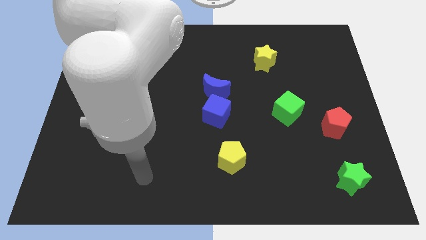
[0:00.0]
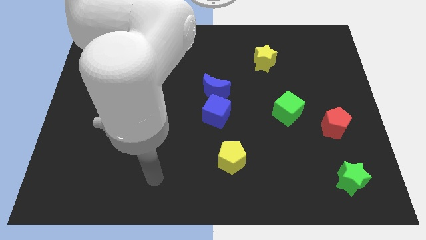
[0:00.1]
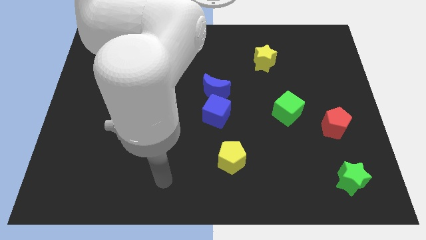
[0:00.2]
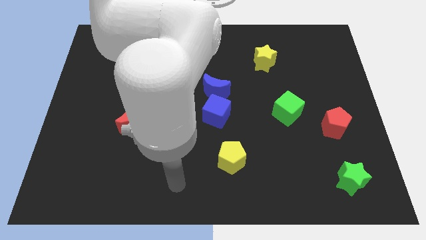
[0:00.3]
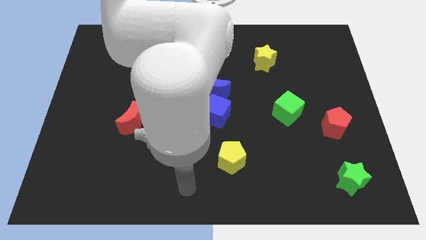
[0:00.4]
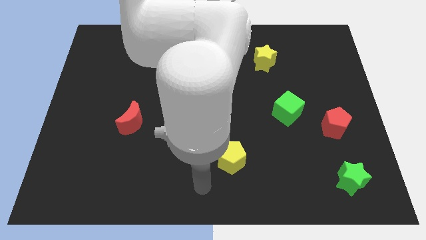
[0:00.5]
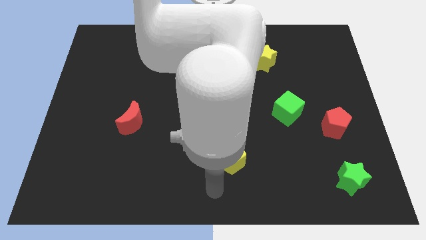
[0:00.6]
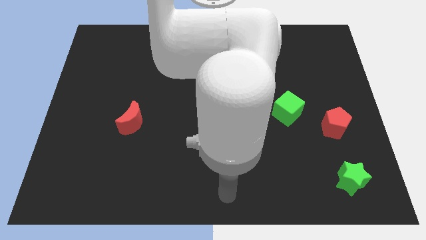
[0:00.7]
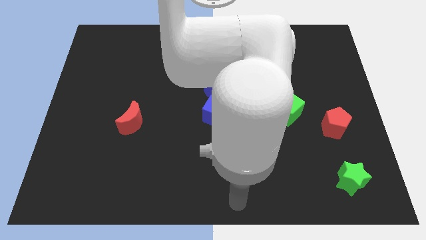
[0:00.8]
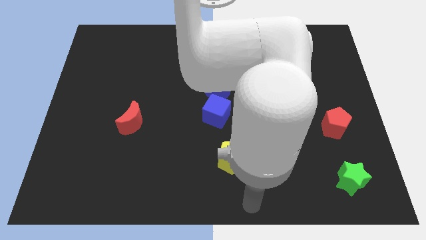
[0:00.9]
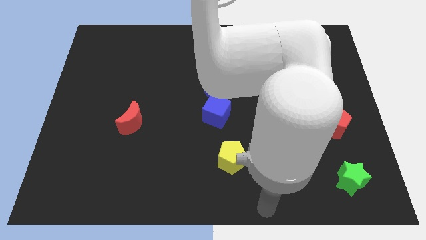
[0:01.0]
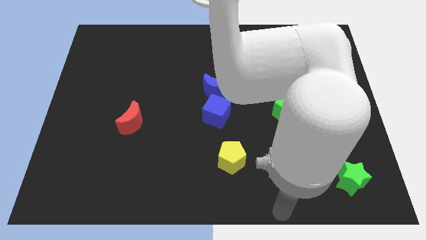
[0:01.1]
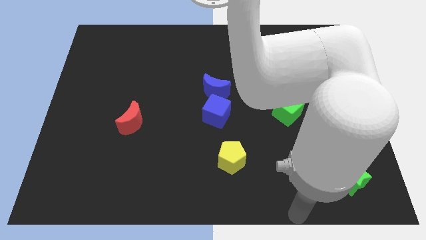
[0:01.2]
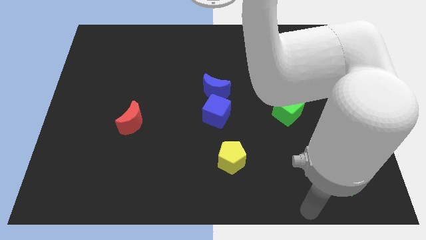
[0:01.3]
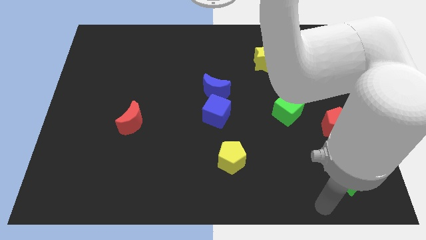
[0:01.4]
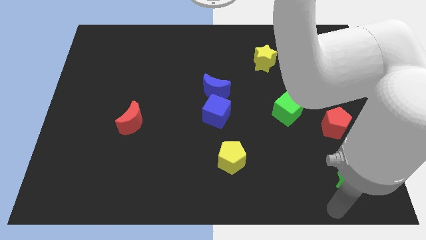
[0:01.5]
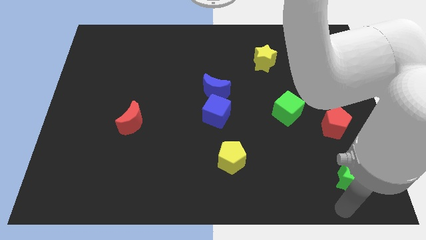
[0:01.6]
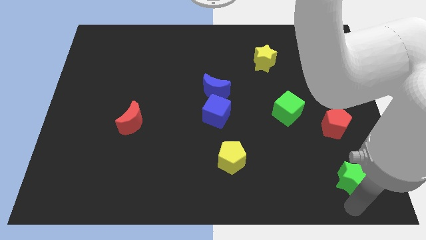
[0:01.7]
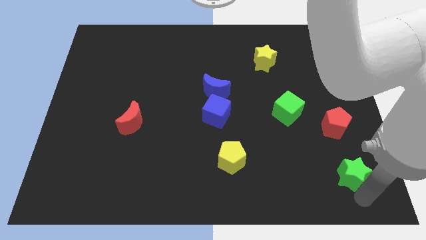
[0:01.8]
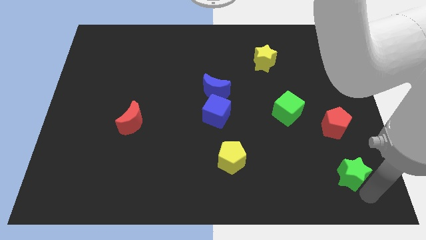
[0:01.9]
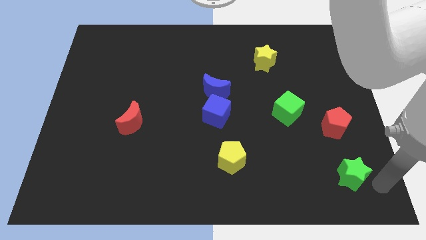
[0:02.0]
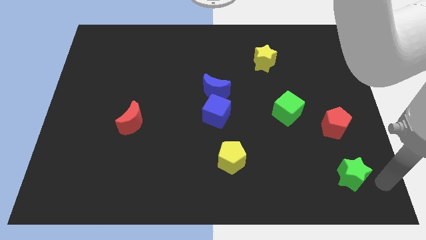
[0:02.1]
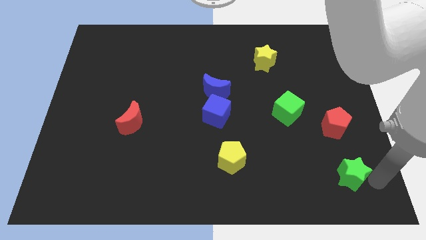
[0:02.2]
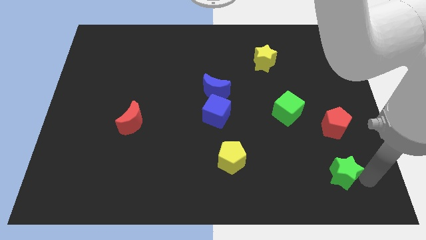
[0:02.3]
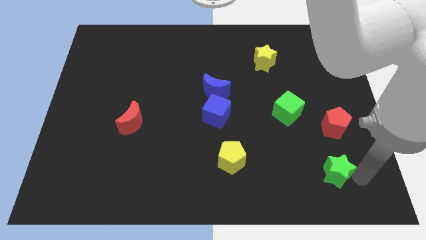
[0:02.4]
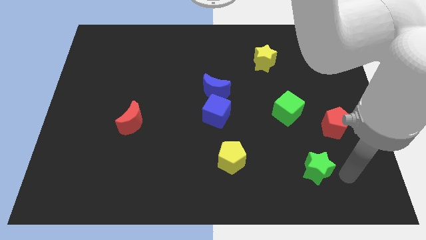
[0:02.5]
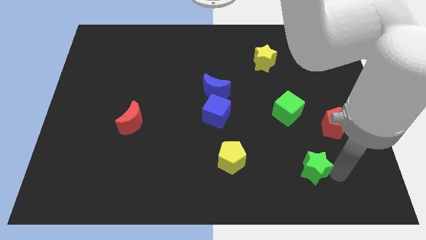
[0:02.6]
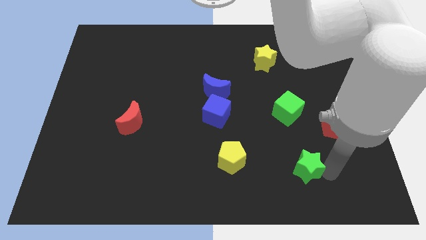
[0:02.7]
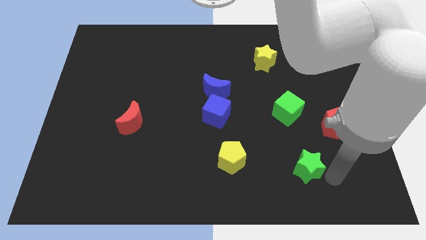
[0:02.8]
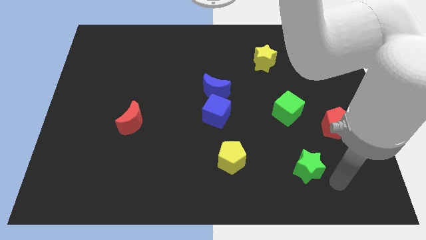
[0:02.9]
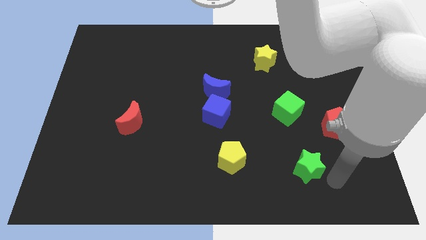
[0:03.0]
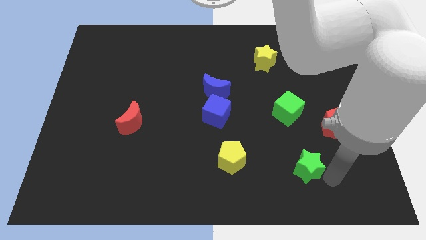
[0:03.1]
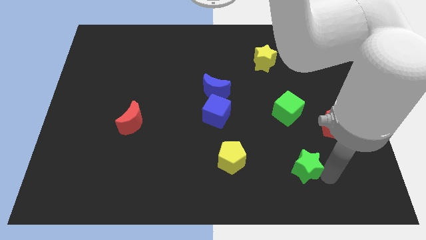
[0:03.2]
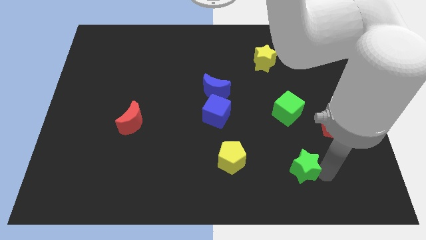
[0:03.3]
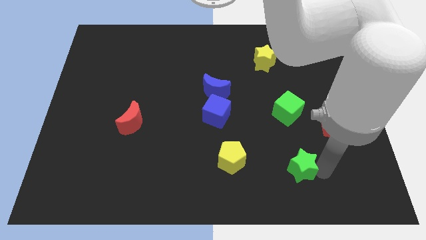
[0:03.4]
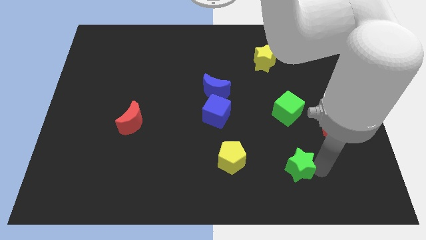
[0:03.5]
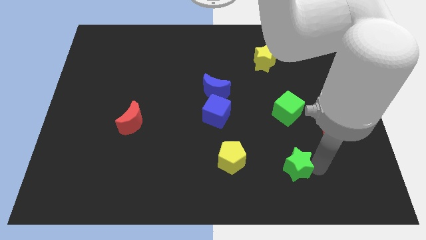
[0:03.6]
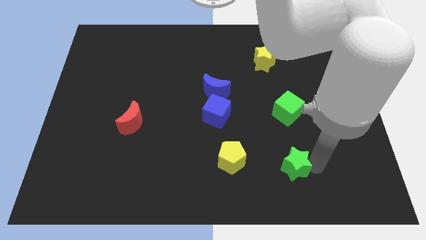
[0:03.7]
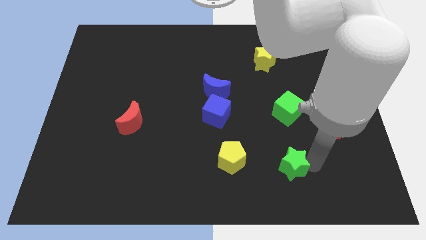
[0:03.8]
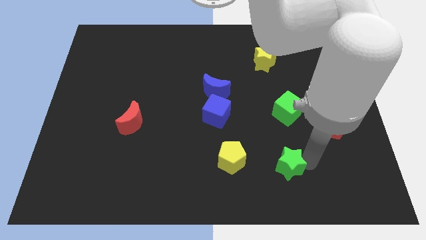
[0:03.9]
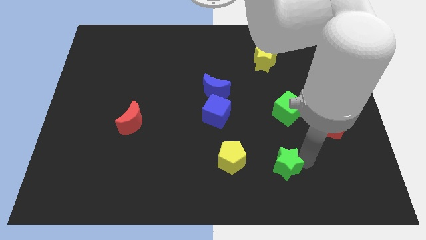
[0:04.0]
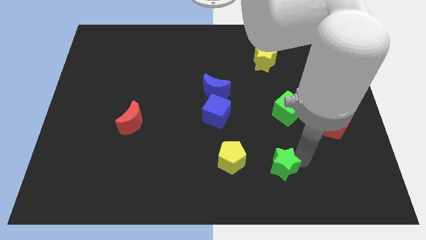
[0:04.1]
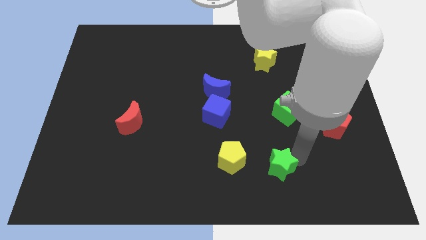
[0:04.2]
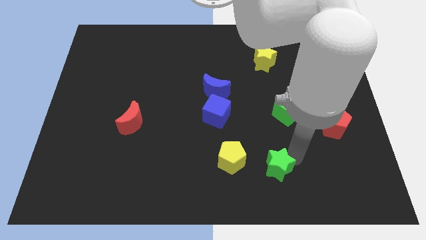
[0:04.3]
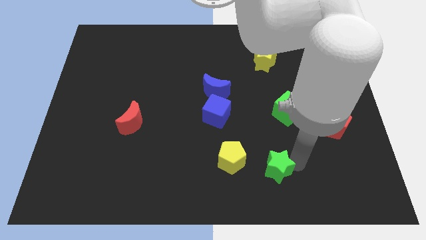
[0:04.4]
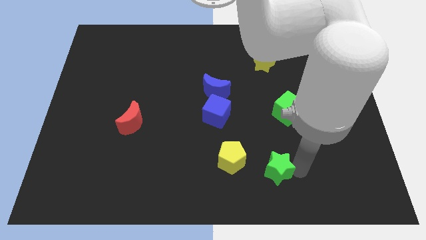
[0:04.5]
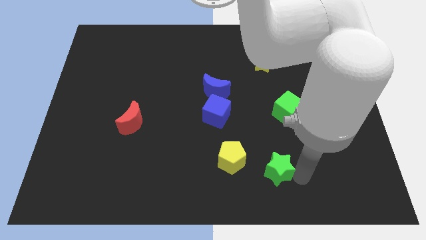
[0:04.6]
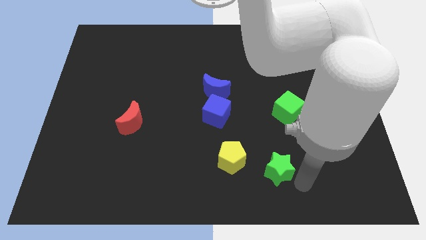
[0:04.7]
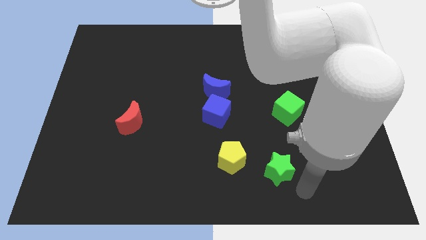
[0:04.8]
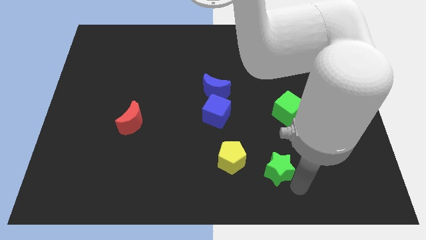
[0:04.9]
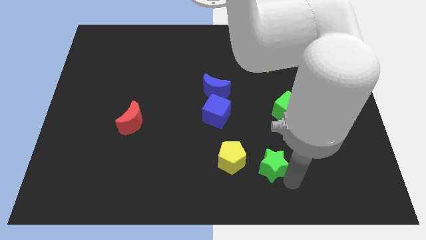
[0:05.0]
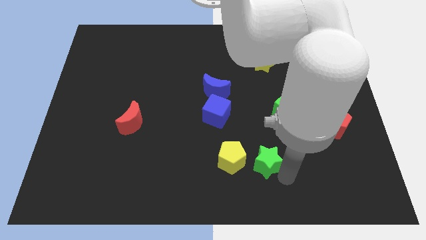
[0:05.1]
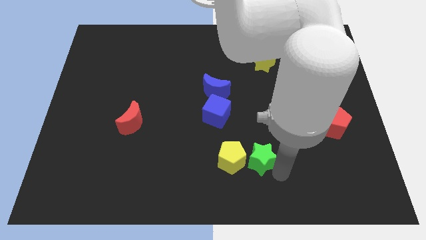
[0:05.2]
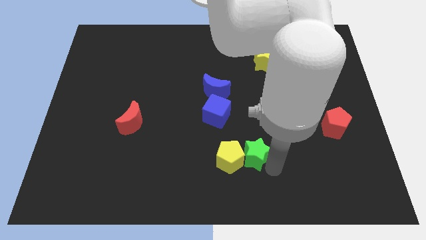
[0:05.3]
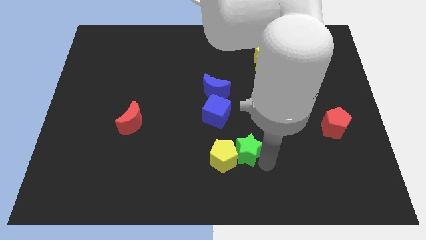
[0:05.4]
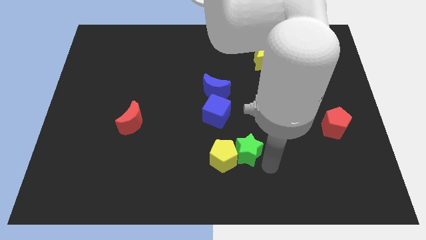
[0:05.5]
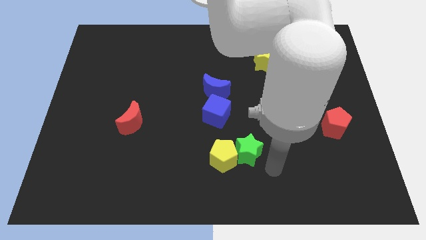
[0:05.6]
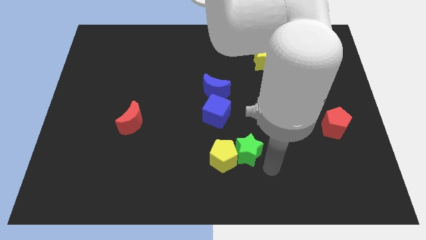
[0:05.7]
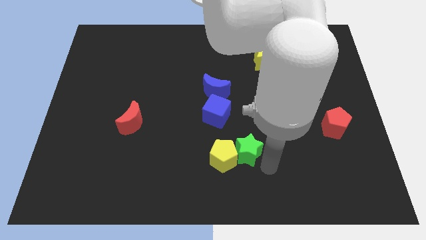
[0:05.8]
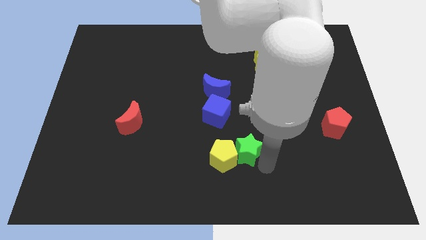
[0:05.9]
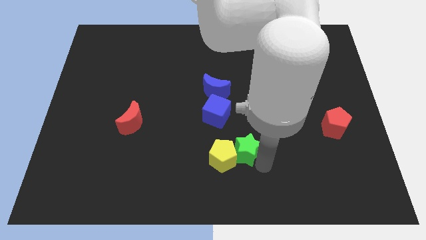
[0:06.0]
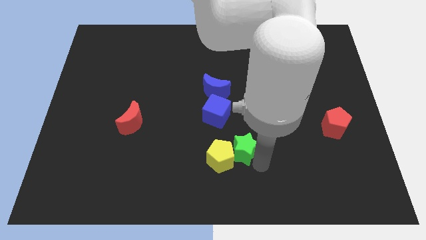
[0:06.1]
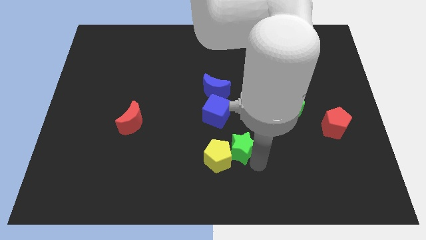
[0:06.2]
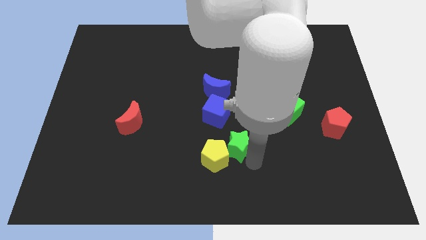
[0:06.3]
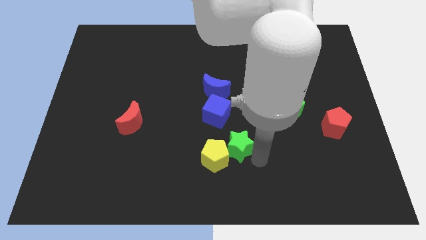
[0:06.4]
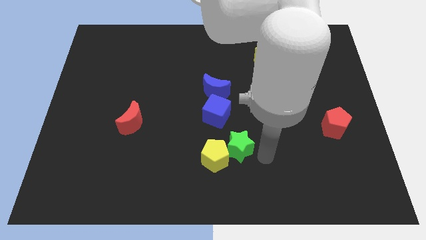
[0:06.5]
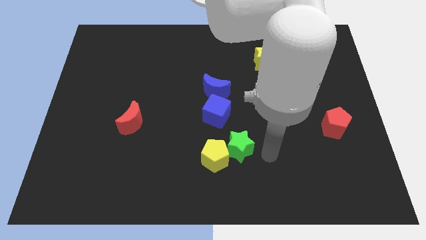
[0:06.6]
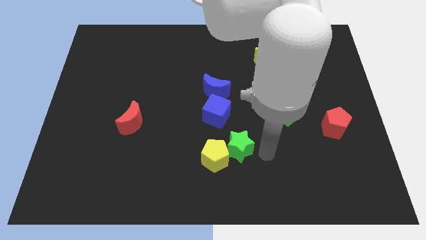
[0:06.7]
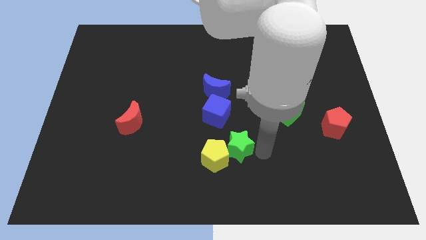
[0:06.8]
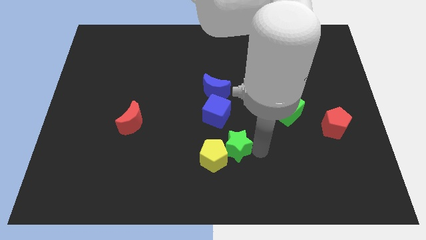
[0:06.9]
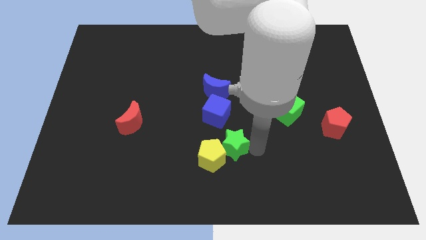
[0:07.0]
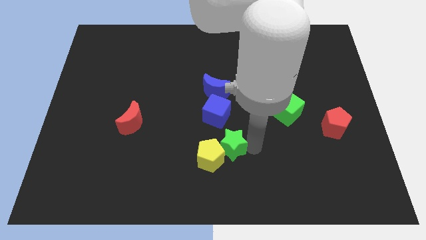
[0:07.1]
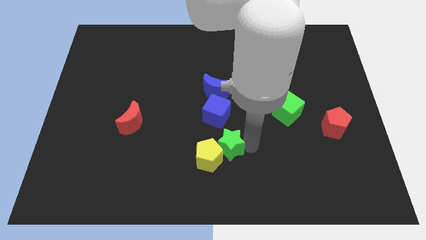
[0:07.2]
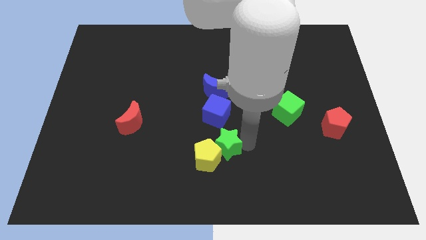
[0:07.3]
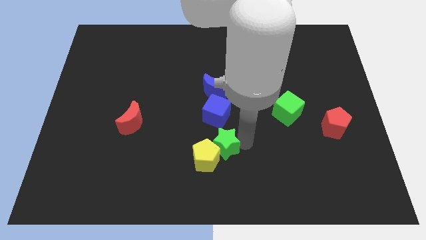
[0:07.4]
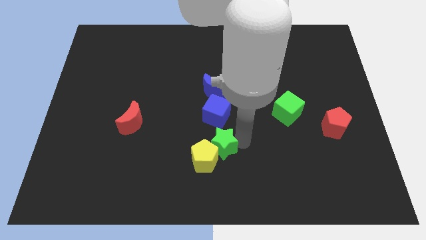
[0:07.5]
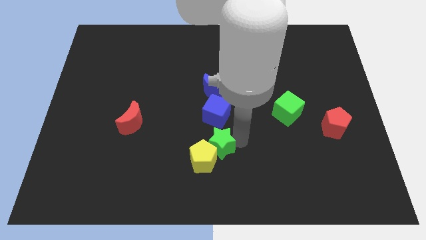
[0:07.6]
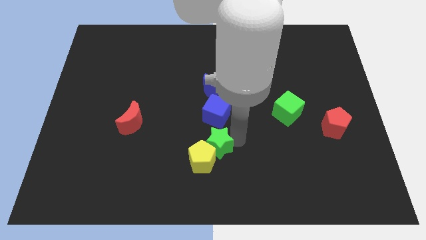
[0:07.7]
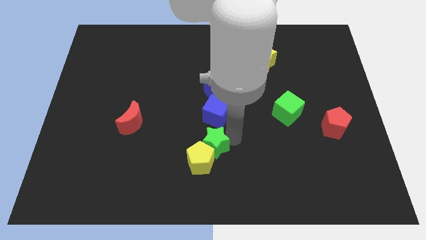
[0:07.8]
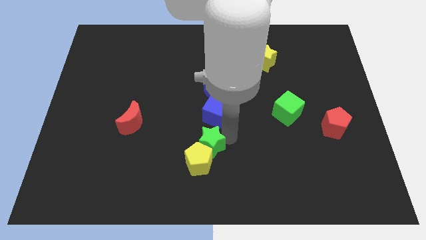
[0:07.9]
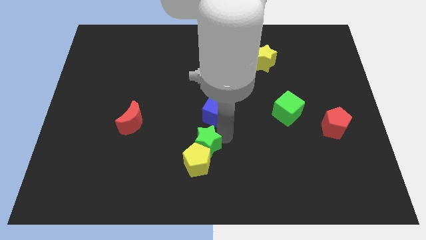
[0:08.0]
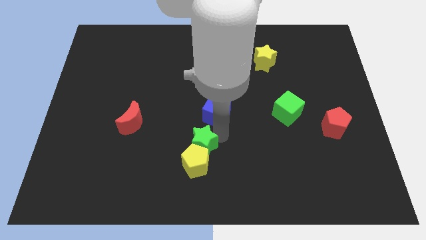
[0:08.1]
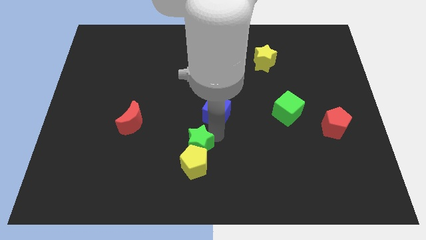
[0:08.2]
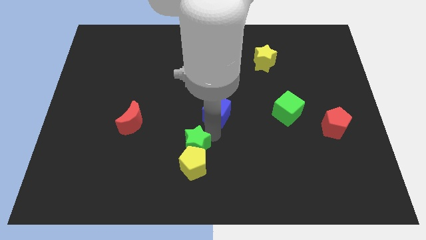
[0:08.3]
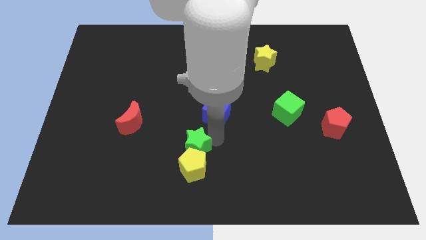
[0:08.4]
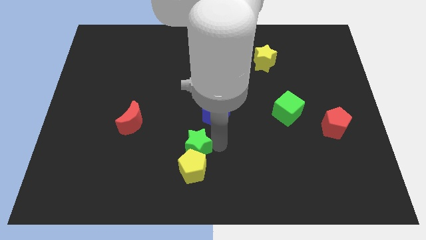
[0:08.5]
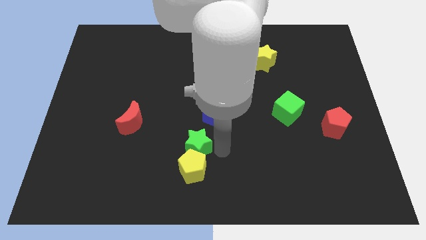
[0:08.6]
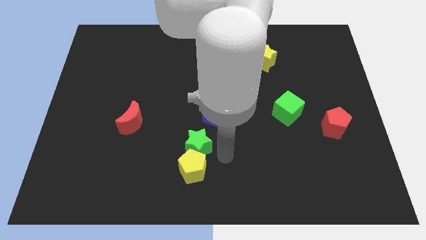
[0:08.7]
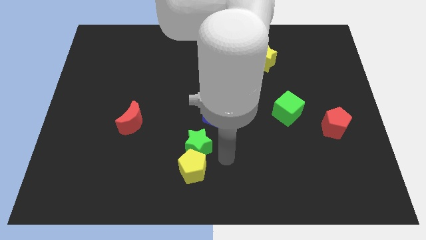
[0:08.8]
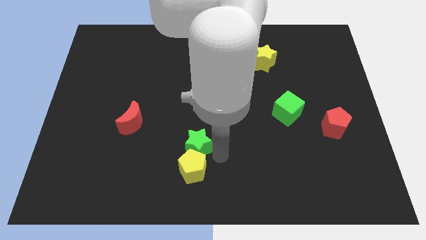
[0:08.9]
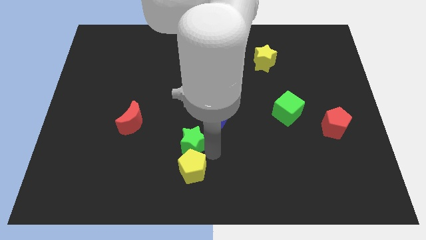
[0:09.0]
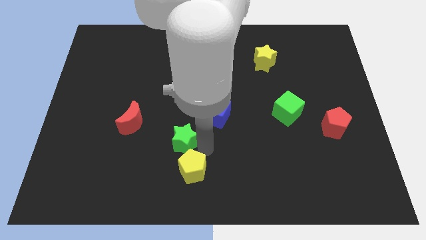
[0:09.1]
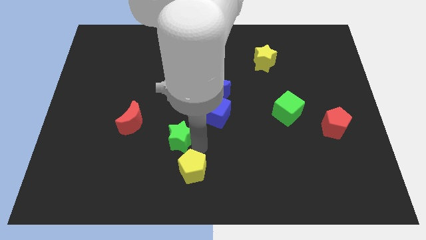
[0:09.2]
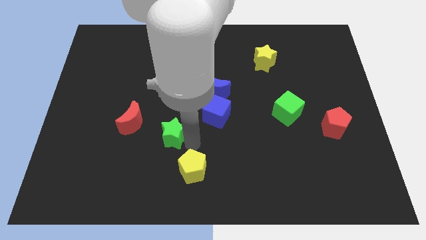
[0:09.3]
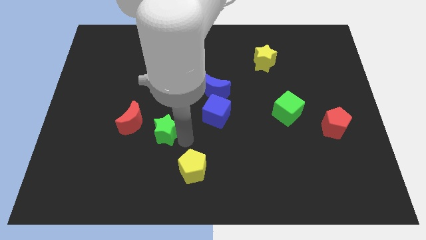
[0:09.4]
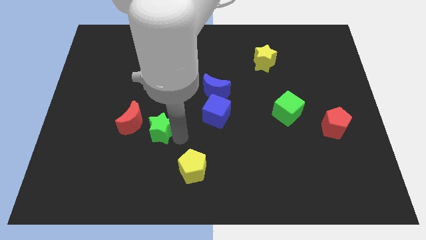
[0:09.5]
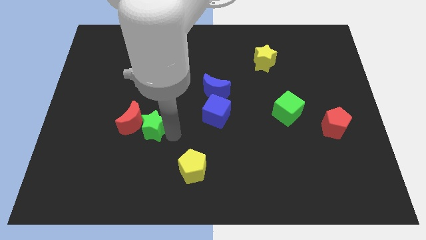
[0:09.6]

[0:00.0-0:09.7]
put the green star next to the red moon
